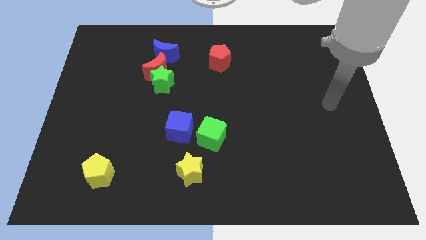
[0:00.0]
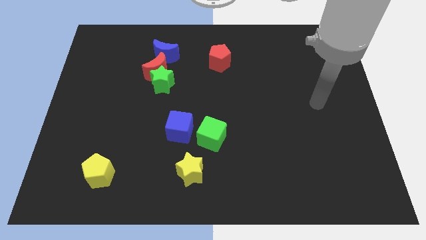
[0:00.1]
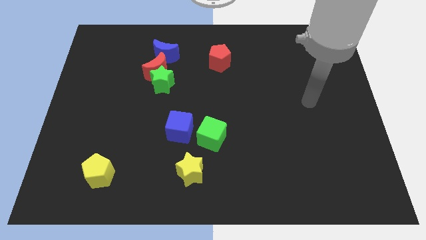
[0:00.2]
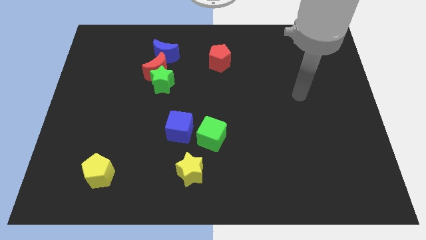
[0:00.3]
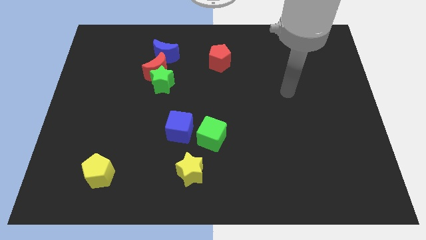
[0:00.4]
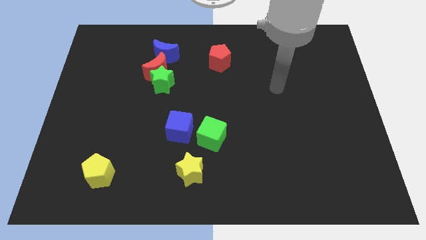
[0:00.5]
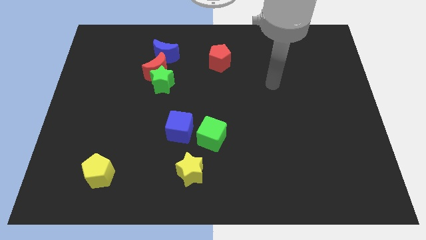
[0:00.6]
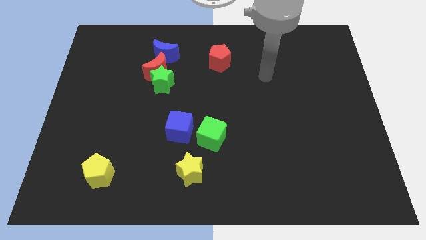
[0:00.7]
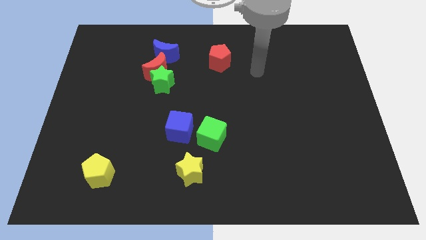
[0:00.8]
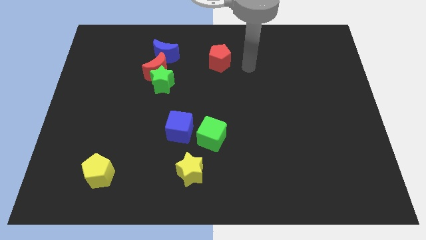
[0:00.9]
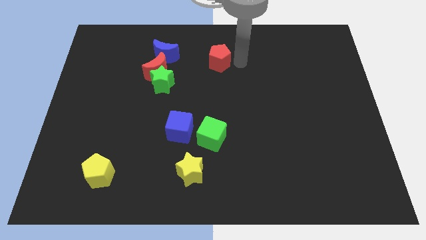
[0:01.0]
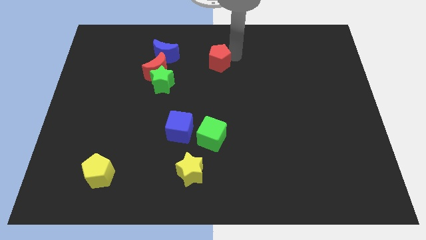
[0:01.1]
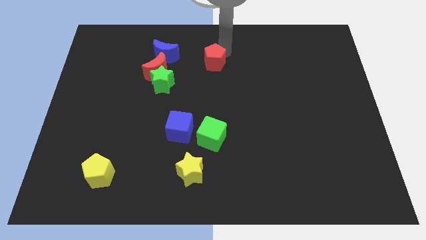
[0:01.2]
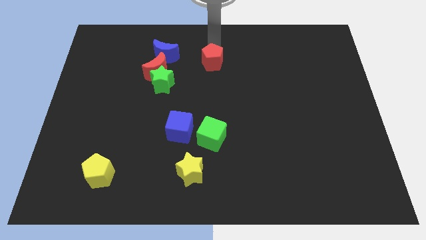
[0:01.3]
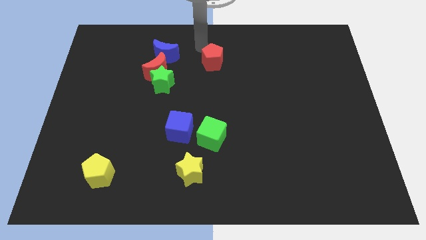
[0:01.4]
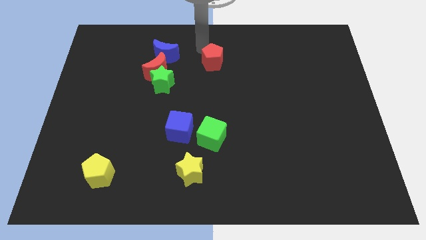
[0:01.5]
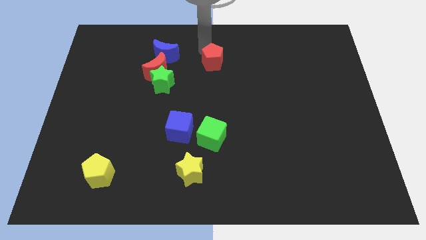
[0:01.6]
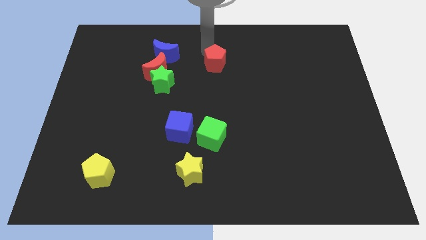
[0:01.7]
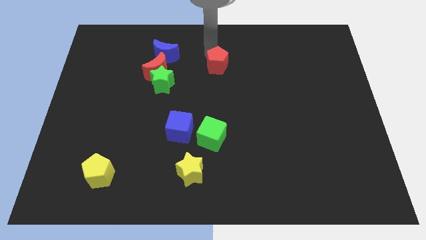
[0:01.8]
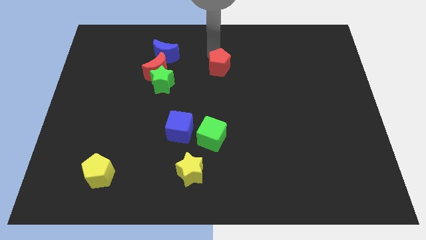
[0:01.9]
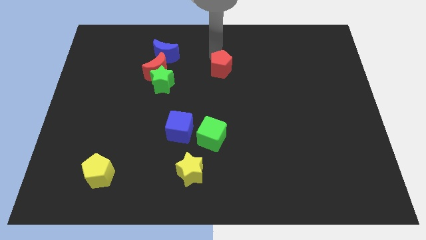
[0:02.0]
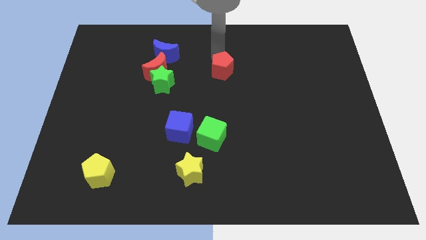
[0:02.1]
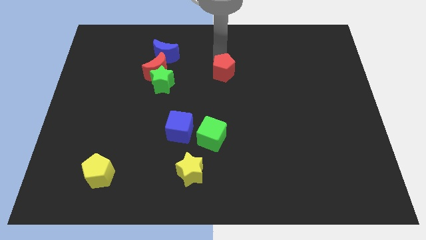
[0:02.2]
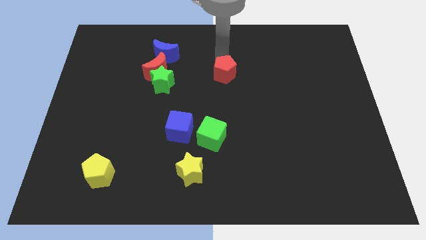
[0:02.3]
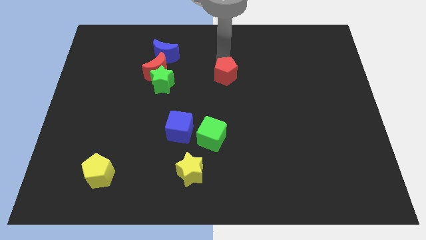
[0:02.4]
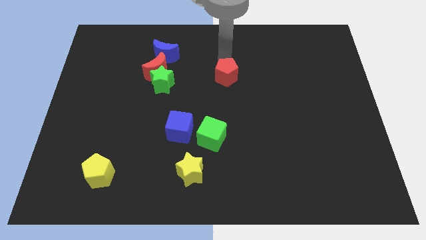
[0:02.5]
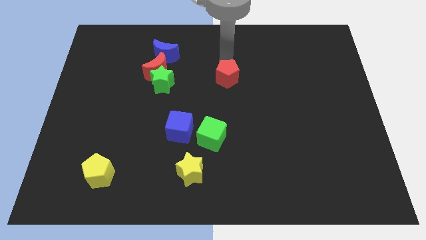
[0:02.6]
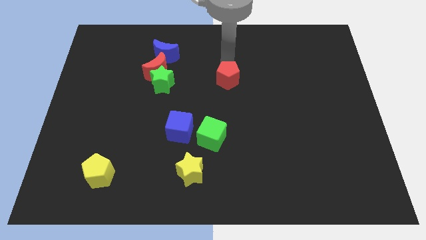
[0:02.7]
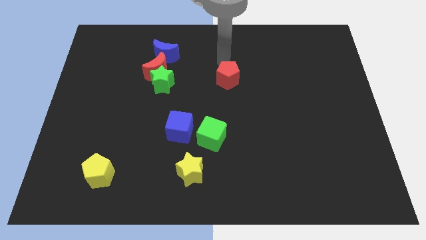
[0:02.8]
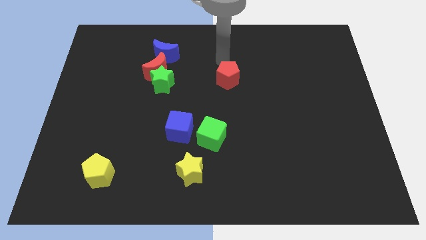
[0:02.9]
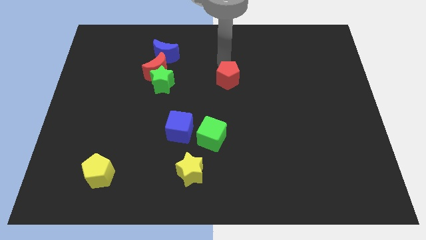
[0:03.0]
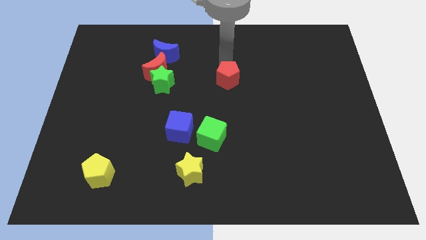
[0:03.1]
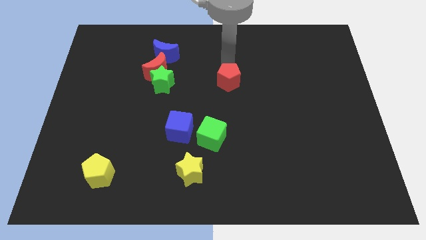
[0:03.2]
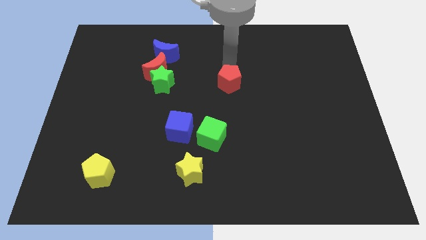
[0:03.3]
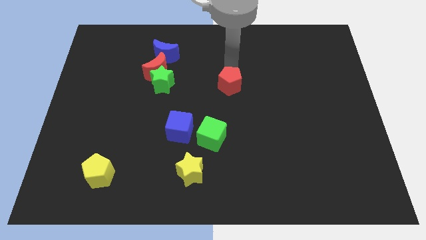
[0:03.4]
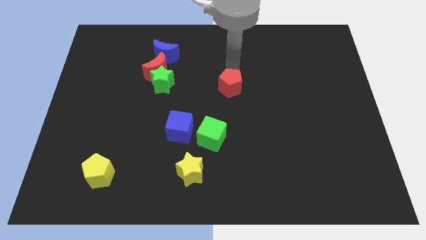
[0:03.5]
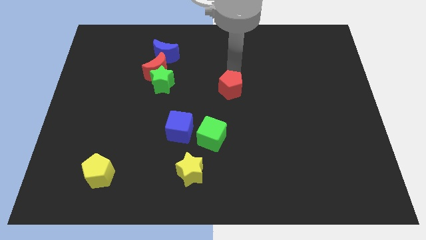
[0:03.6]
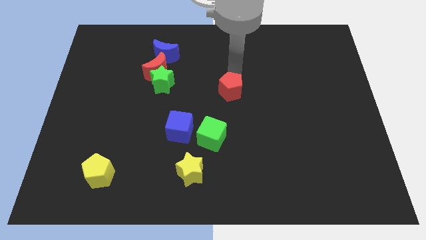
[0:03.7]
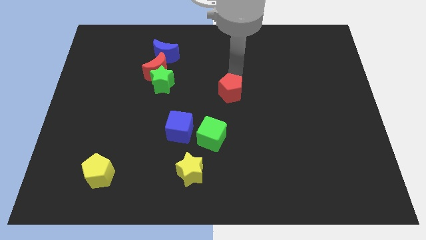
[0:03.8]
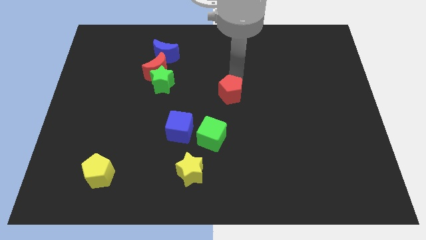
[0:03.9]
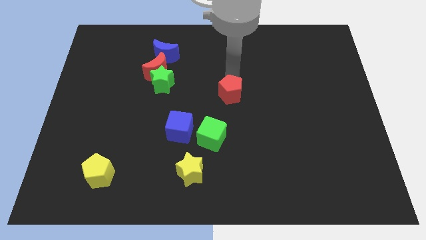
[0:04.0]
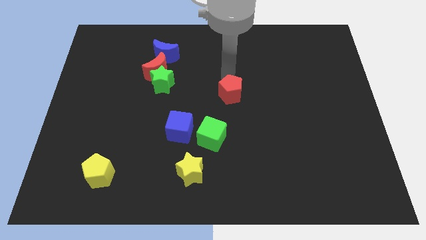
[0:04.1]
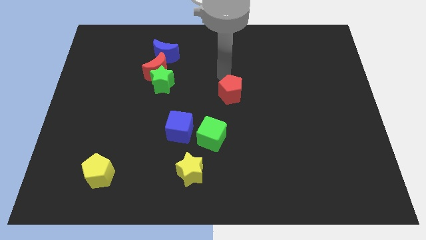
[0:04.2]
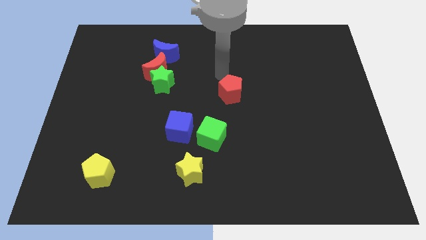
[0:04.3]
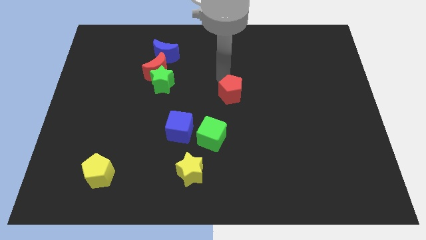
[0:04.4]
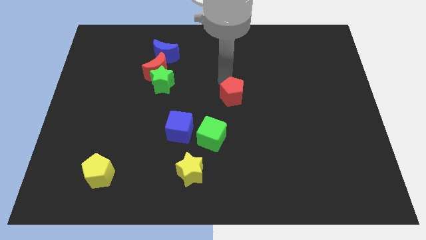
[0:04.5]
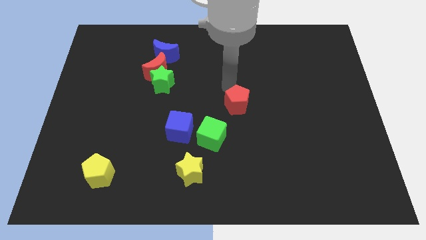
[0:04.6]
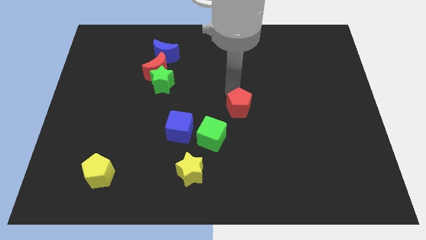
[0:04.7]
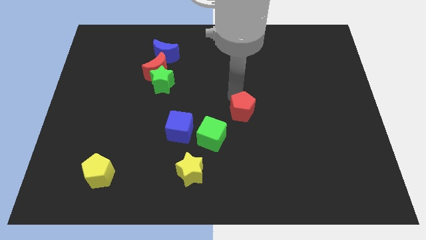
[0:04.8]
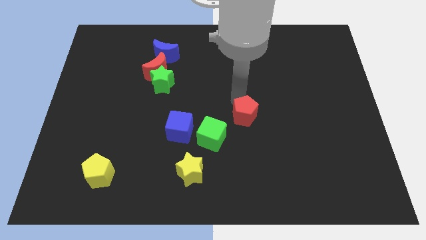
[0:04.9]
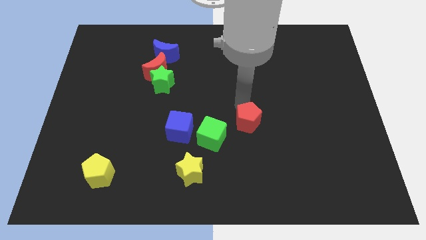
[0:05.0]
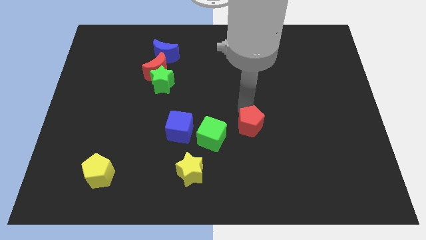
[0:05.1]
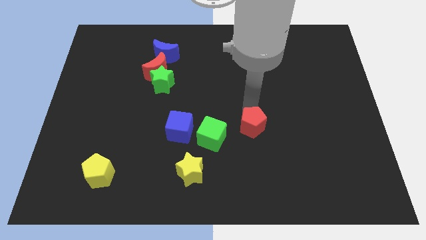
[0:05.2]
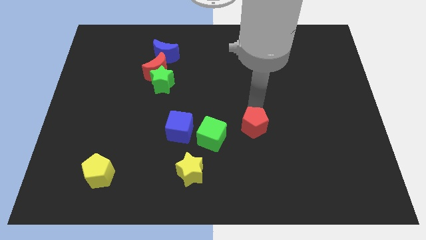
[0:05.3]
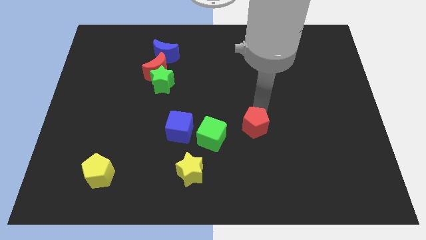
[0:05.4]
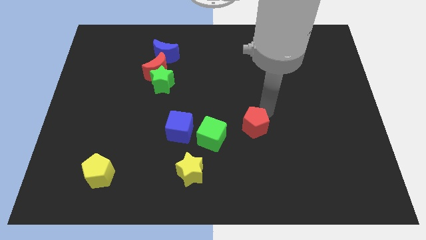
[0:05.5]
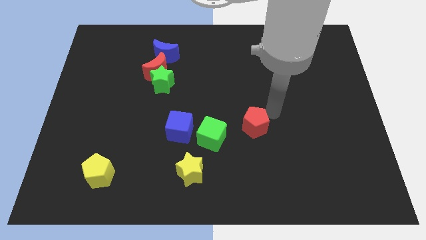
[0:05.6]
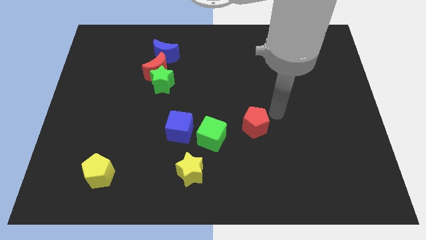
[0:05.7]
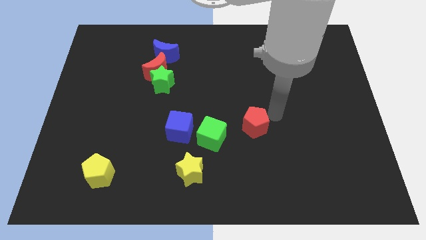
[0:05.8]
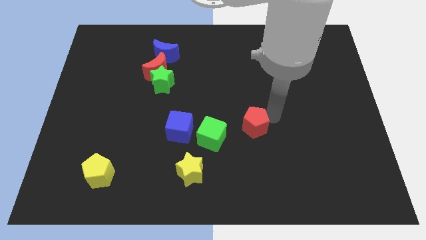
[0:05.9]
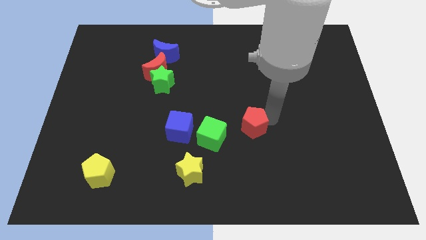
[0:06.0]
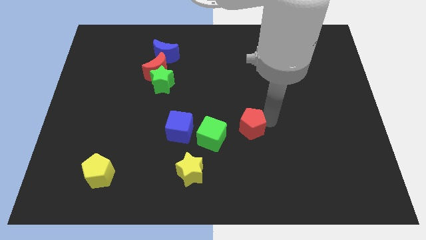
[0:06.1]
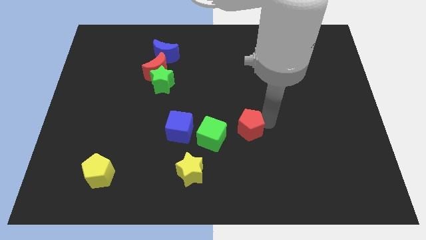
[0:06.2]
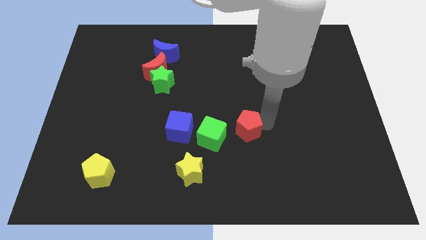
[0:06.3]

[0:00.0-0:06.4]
slide the red pentagon downwards

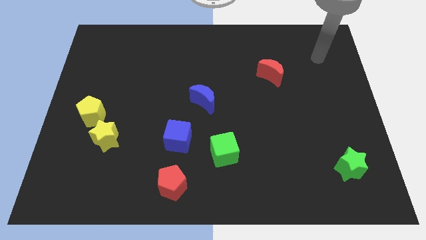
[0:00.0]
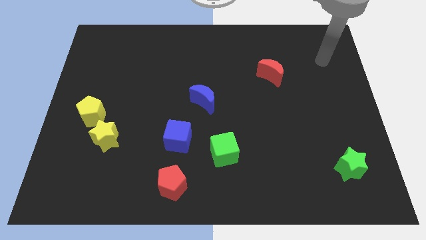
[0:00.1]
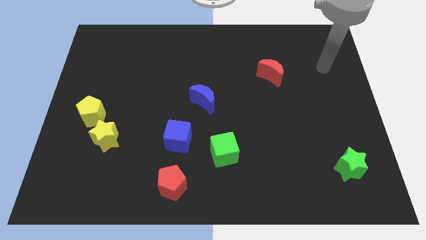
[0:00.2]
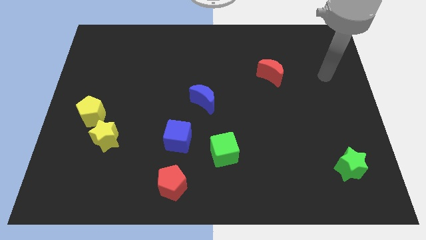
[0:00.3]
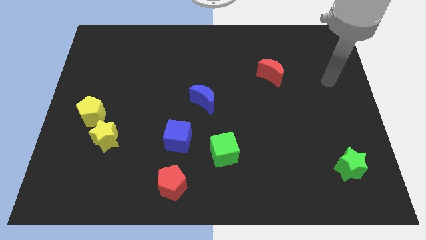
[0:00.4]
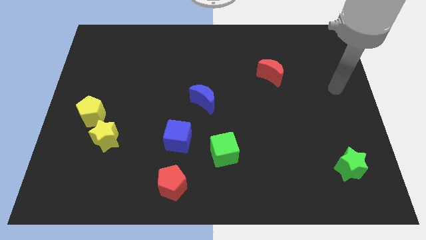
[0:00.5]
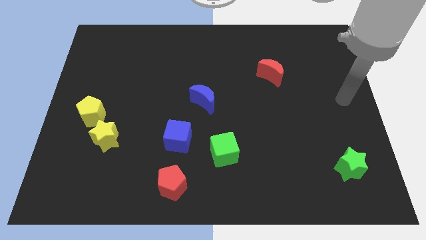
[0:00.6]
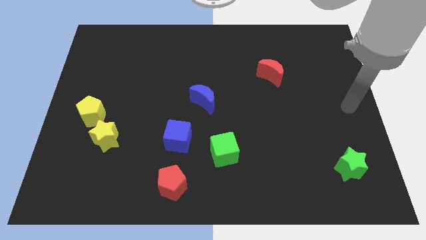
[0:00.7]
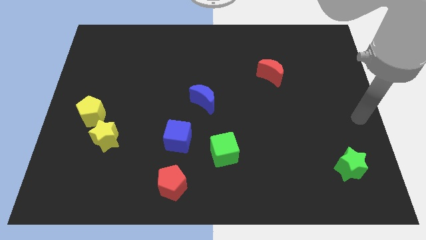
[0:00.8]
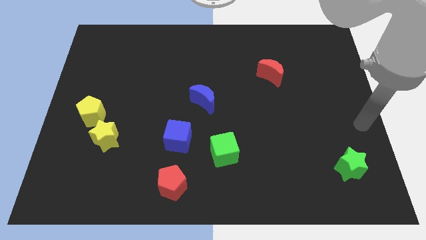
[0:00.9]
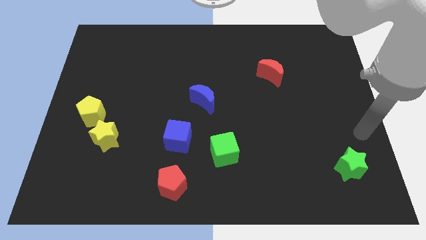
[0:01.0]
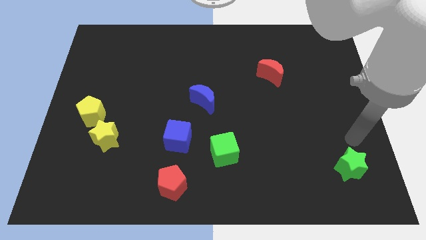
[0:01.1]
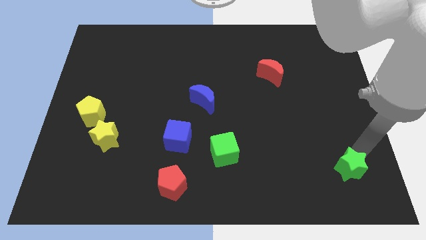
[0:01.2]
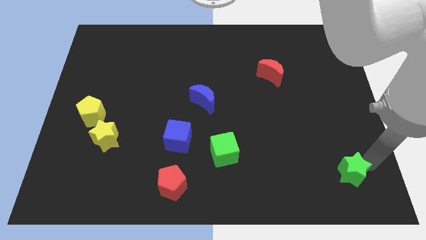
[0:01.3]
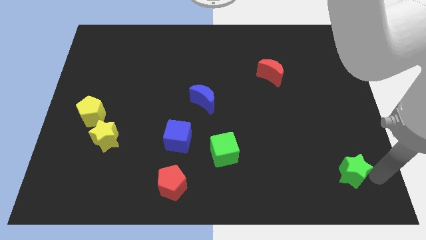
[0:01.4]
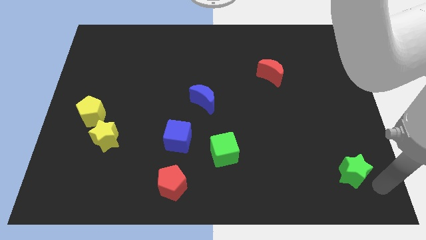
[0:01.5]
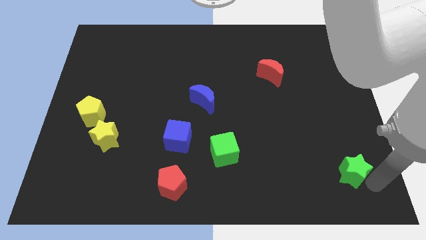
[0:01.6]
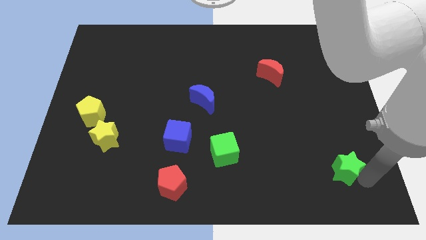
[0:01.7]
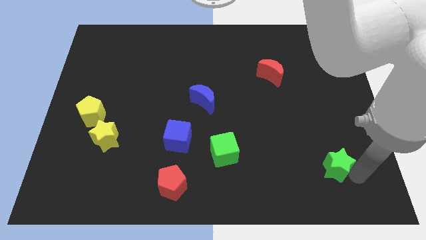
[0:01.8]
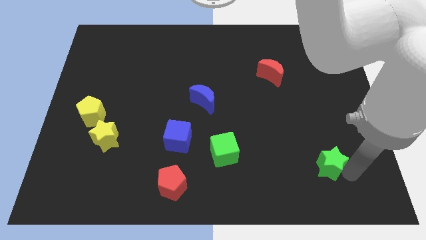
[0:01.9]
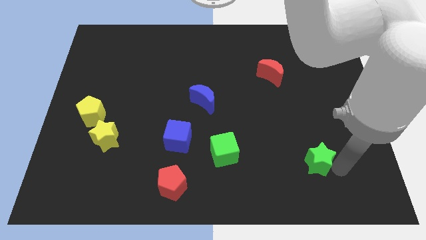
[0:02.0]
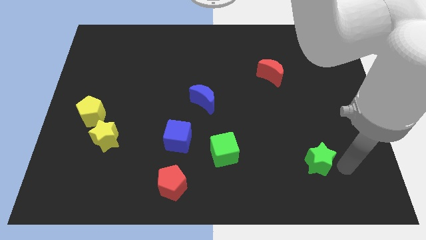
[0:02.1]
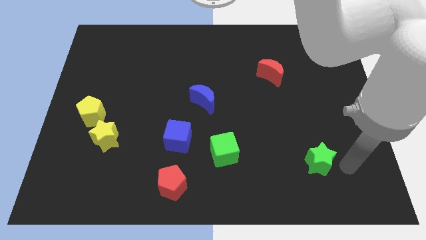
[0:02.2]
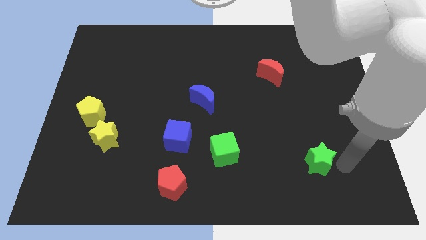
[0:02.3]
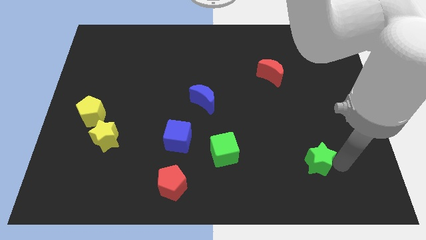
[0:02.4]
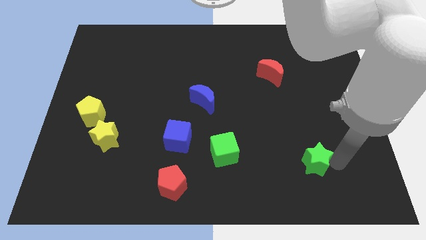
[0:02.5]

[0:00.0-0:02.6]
move the green star to the left a bit
